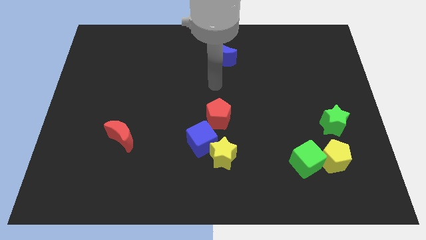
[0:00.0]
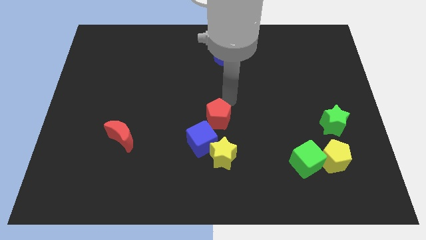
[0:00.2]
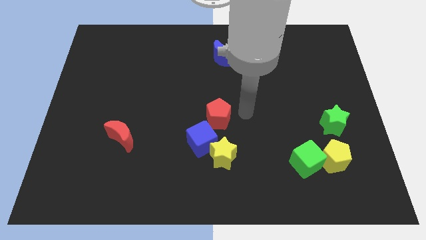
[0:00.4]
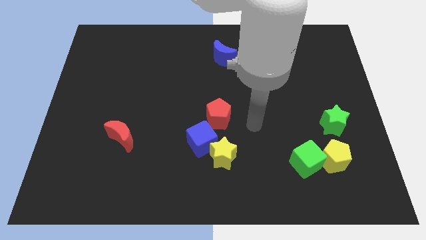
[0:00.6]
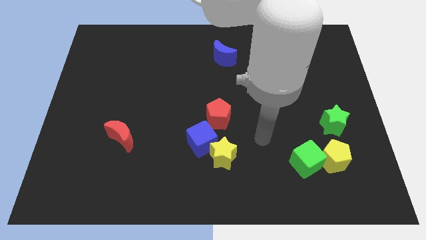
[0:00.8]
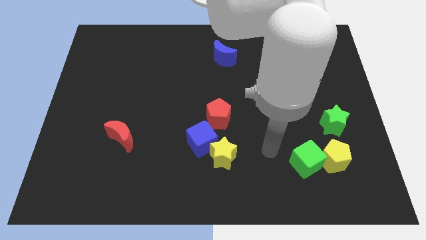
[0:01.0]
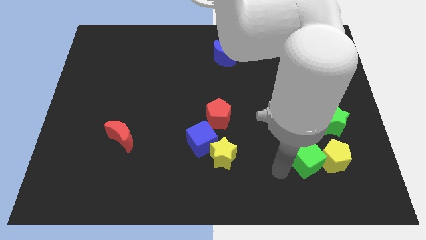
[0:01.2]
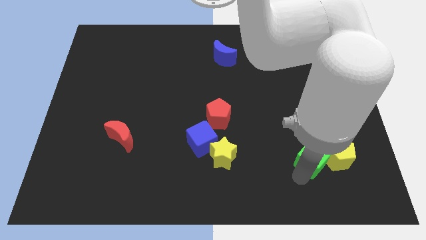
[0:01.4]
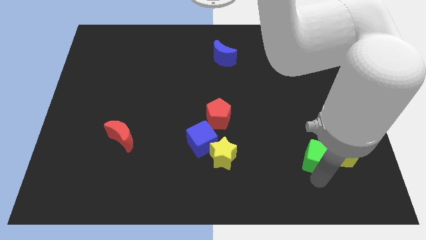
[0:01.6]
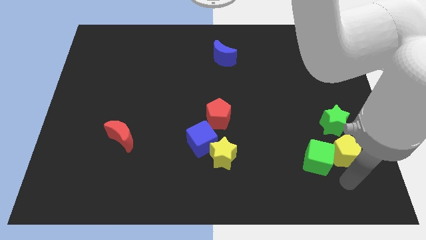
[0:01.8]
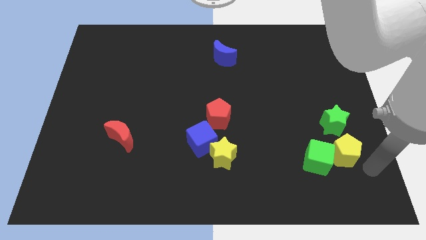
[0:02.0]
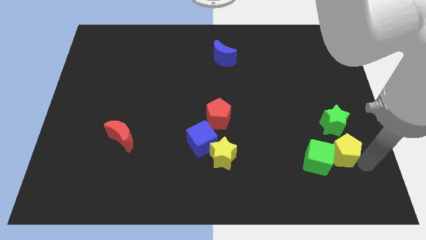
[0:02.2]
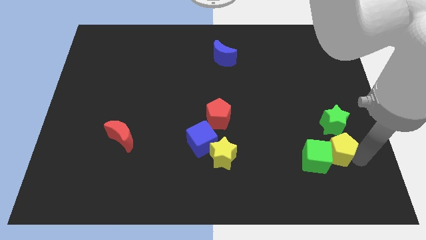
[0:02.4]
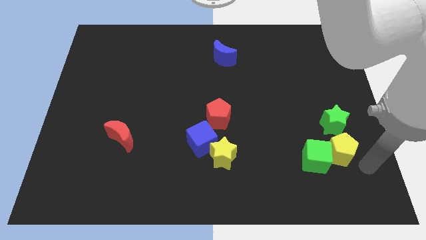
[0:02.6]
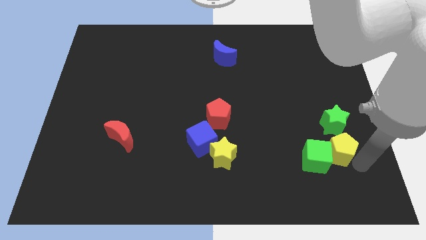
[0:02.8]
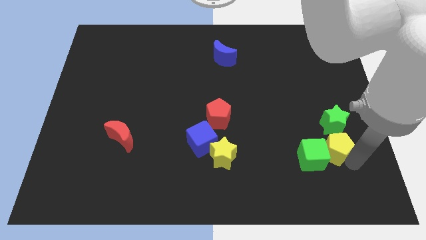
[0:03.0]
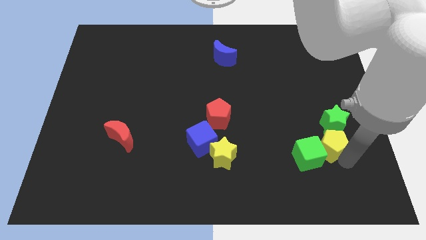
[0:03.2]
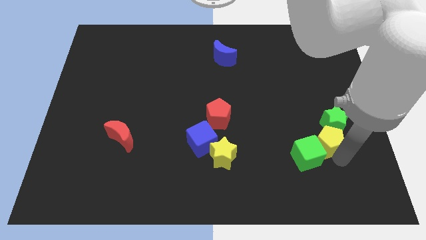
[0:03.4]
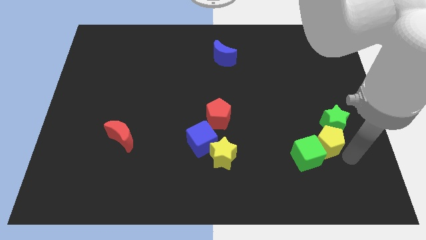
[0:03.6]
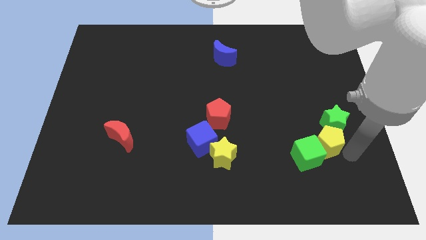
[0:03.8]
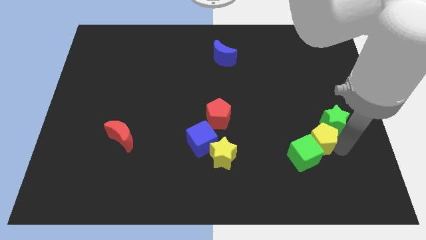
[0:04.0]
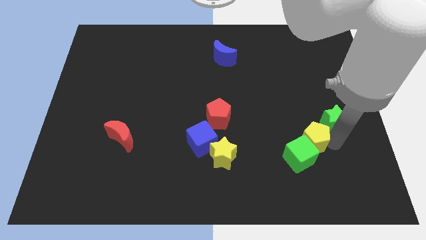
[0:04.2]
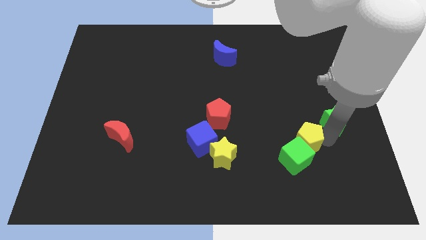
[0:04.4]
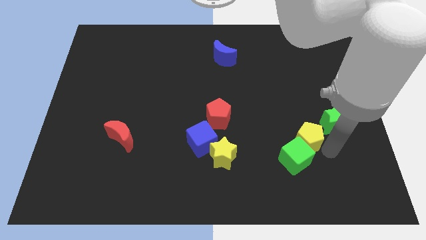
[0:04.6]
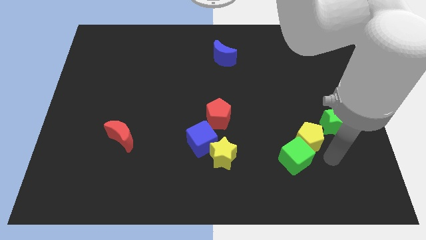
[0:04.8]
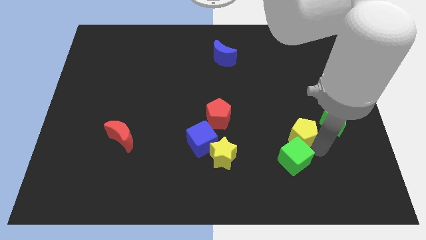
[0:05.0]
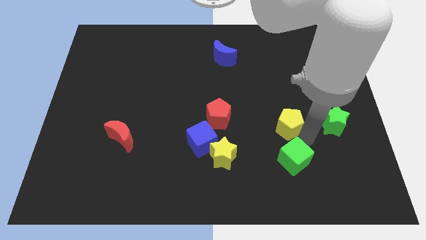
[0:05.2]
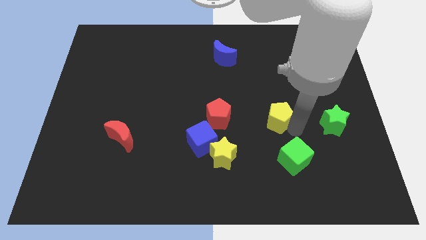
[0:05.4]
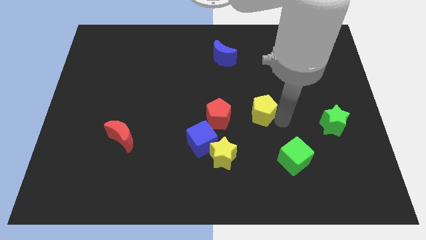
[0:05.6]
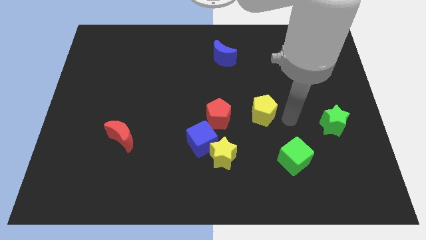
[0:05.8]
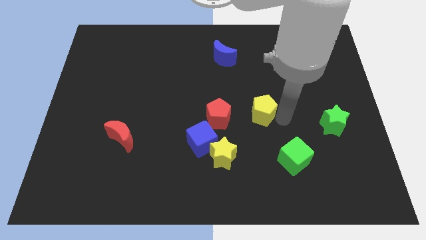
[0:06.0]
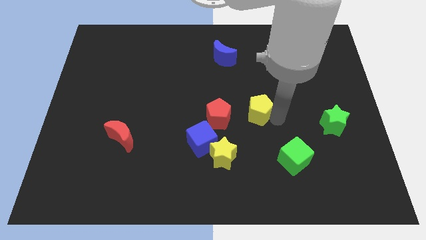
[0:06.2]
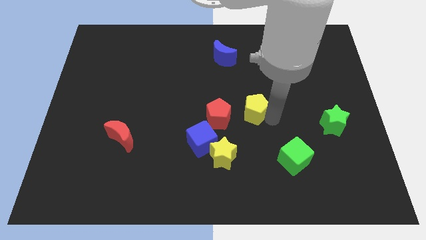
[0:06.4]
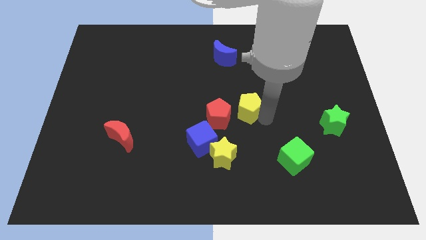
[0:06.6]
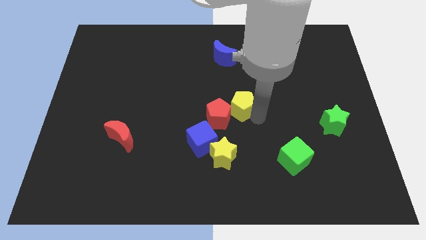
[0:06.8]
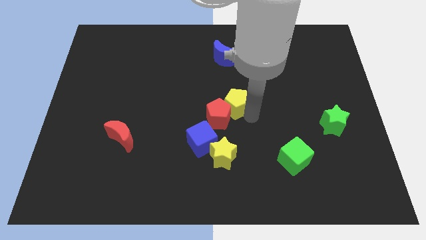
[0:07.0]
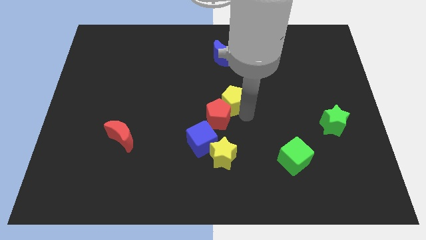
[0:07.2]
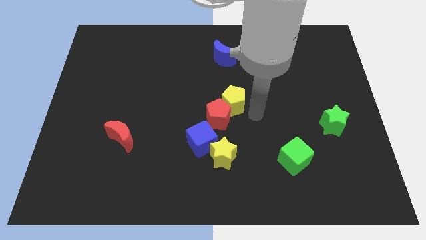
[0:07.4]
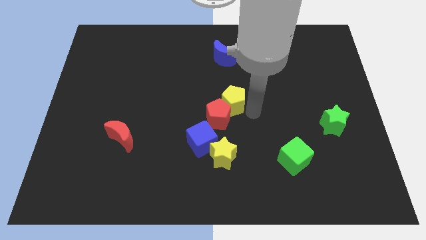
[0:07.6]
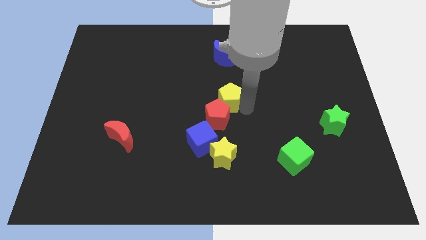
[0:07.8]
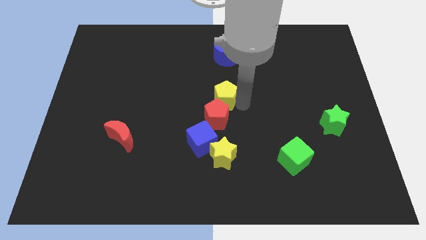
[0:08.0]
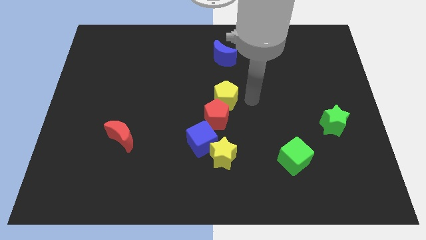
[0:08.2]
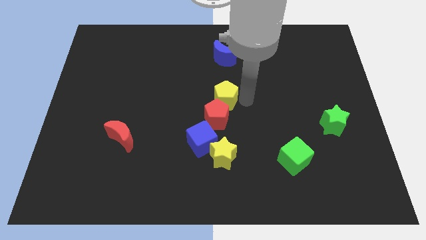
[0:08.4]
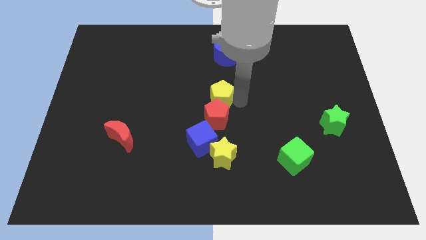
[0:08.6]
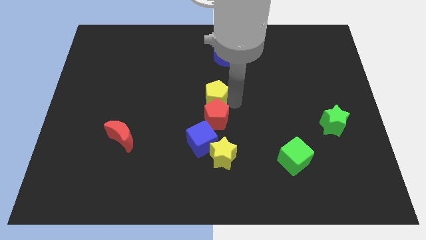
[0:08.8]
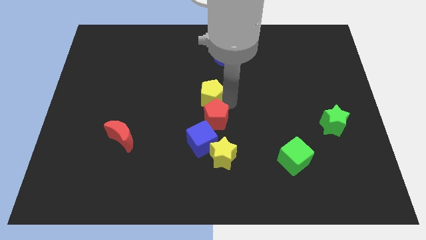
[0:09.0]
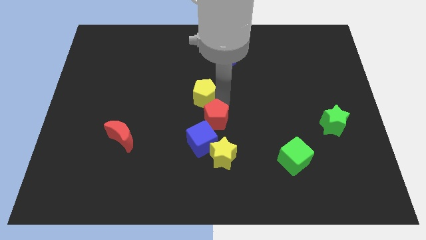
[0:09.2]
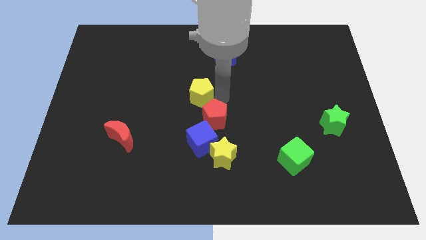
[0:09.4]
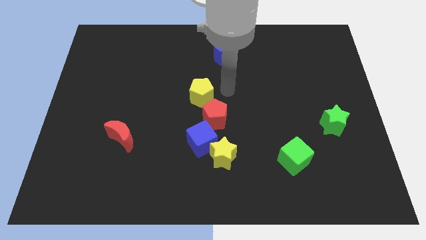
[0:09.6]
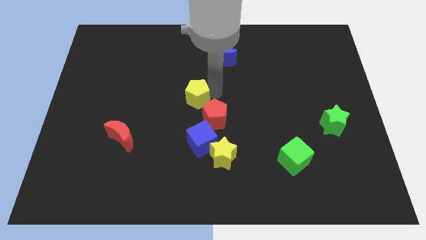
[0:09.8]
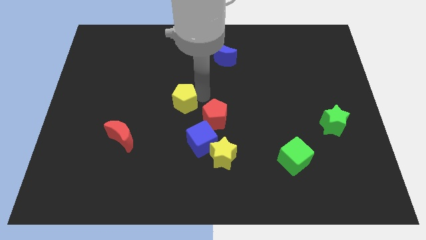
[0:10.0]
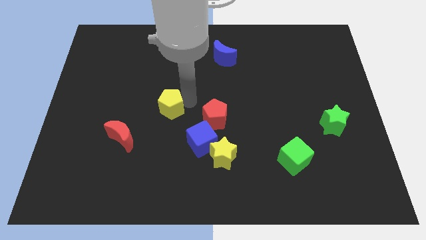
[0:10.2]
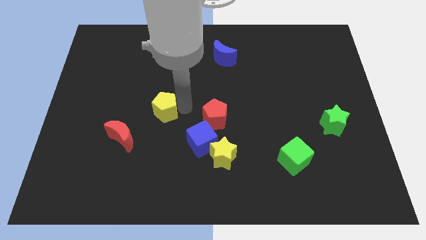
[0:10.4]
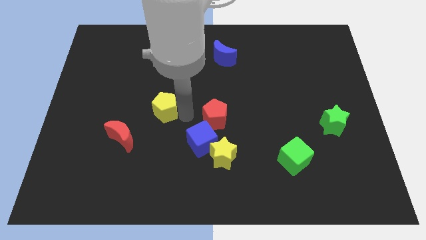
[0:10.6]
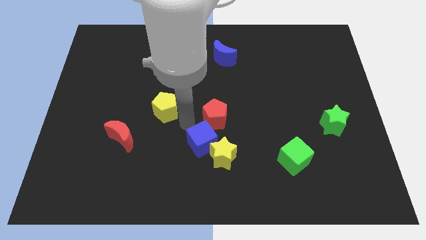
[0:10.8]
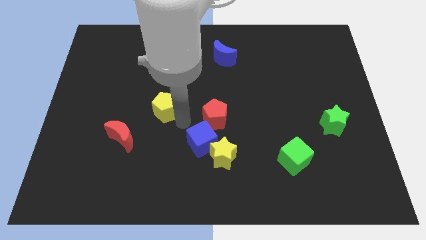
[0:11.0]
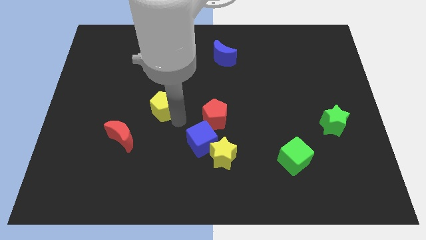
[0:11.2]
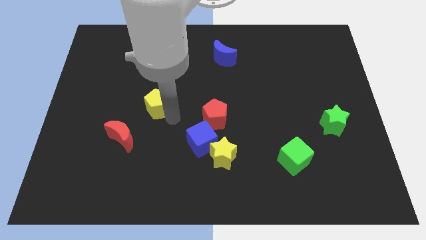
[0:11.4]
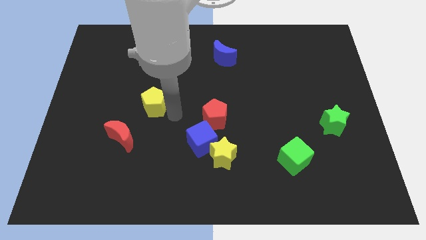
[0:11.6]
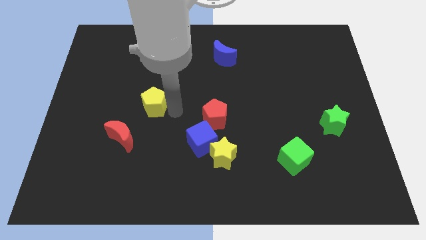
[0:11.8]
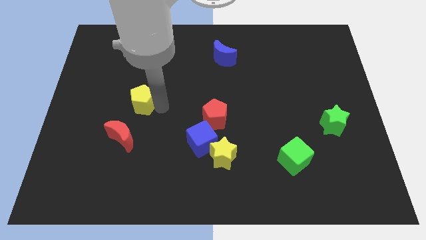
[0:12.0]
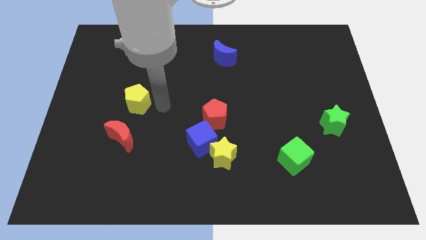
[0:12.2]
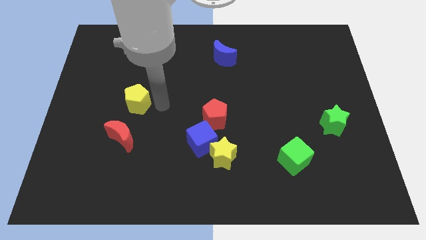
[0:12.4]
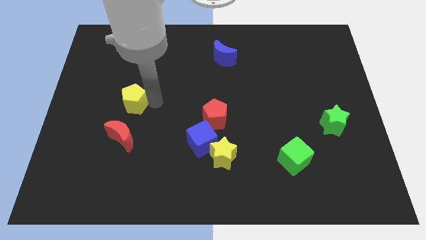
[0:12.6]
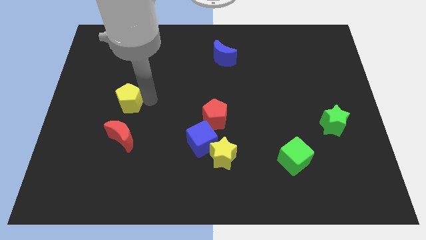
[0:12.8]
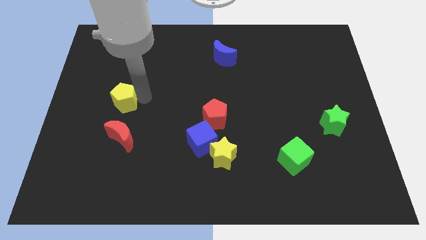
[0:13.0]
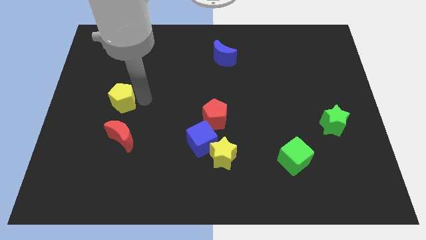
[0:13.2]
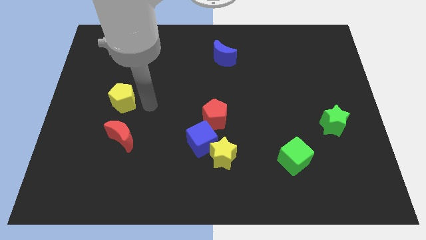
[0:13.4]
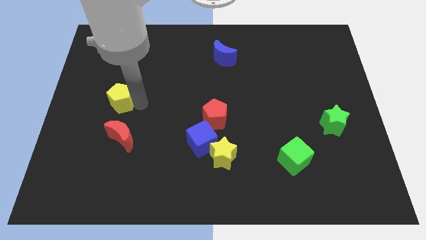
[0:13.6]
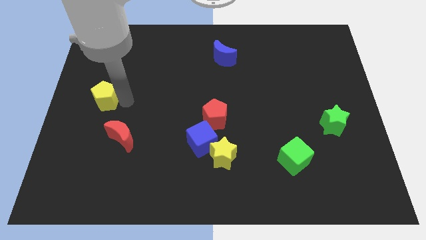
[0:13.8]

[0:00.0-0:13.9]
move the yellow pentagon to the left side

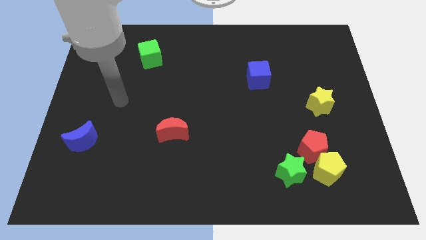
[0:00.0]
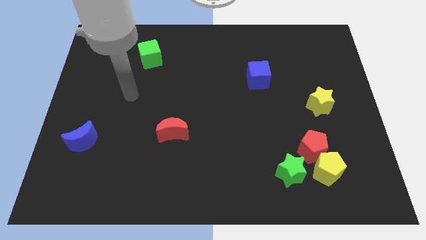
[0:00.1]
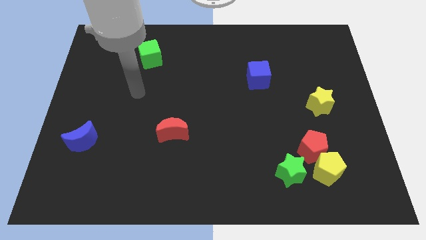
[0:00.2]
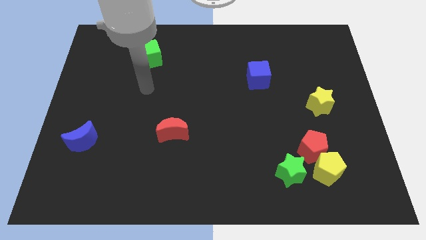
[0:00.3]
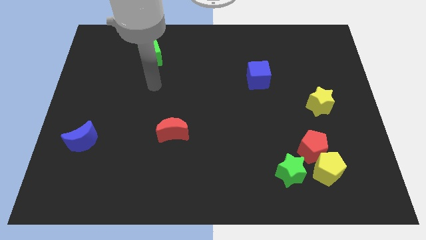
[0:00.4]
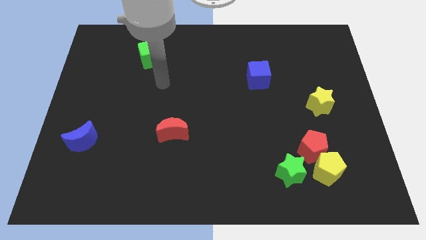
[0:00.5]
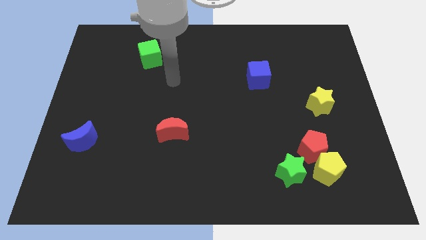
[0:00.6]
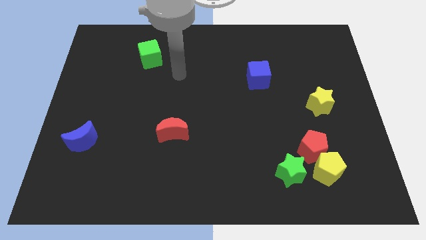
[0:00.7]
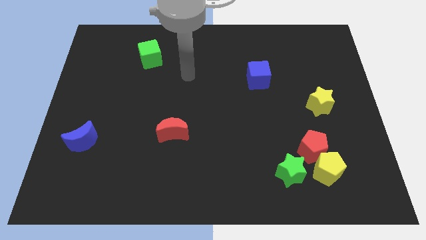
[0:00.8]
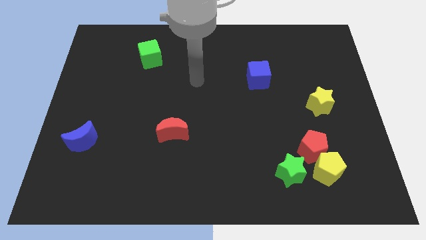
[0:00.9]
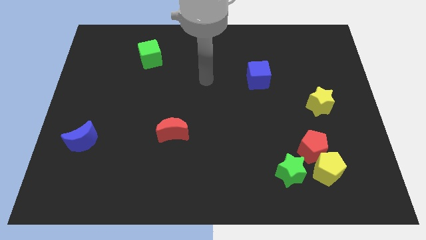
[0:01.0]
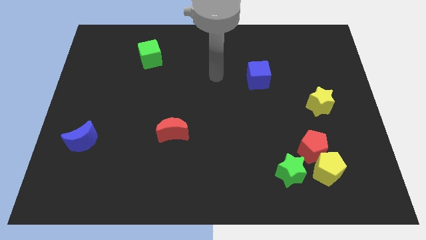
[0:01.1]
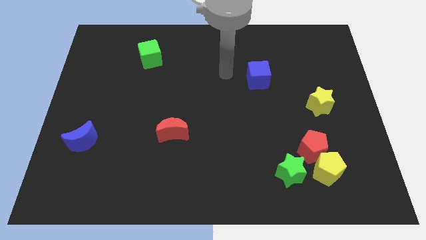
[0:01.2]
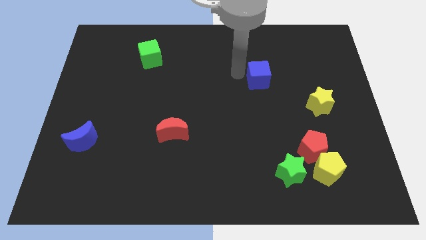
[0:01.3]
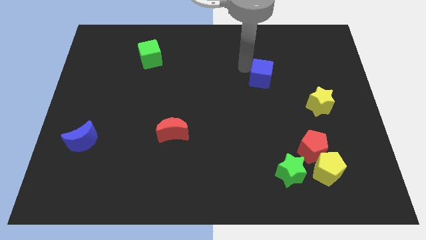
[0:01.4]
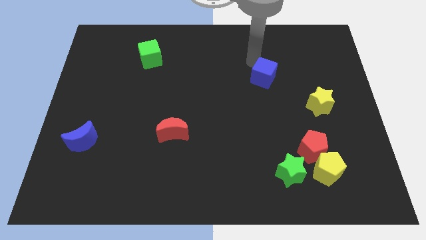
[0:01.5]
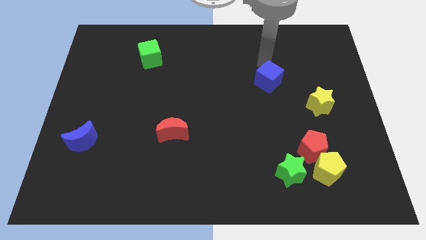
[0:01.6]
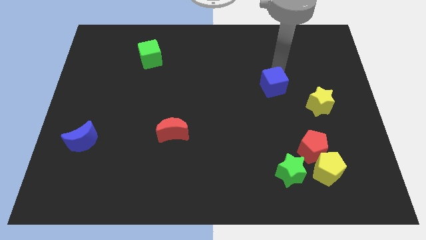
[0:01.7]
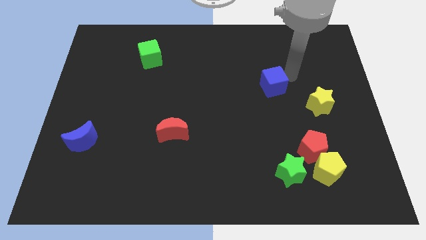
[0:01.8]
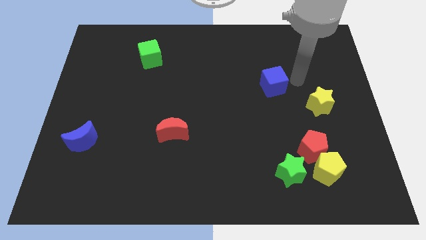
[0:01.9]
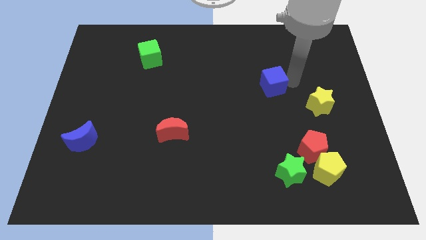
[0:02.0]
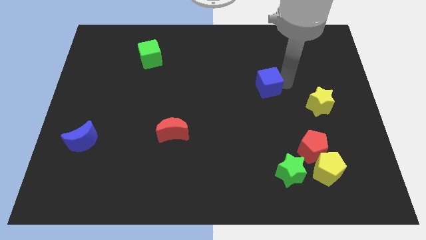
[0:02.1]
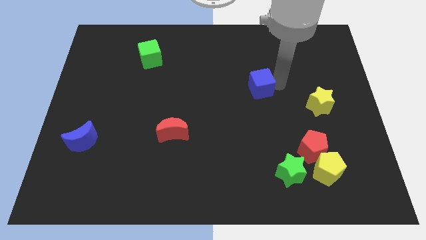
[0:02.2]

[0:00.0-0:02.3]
push the blue cube to the middle
